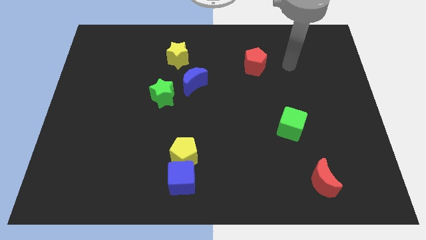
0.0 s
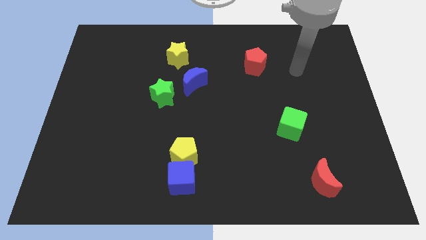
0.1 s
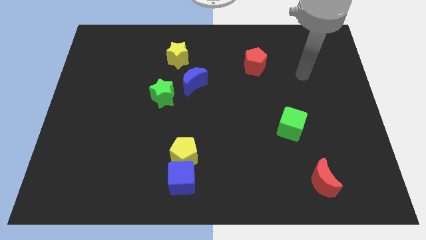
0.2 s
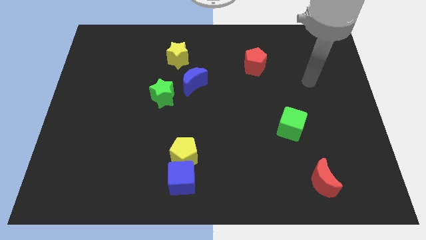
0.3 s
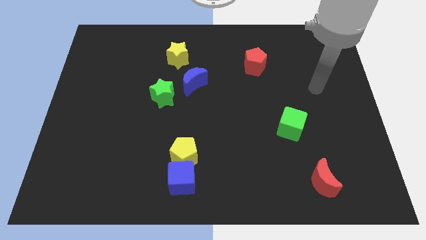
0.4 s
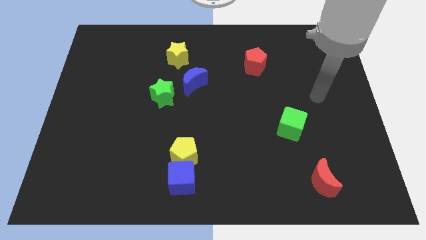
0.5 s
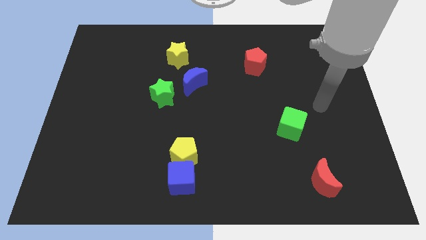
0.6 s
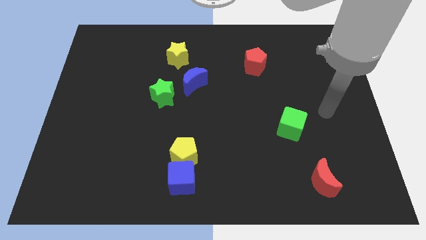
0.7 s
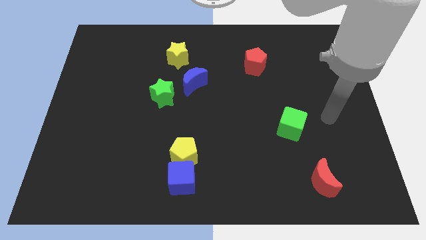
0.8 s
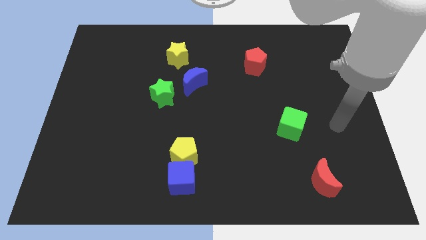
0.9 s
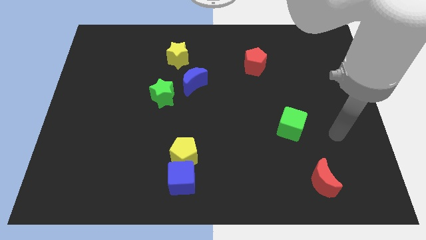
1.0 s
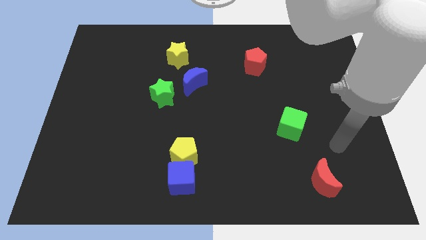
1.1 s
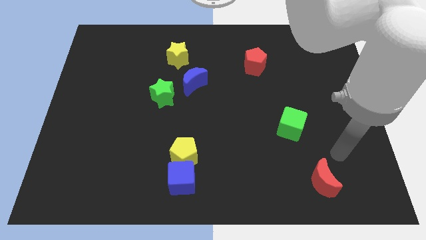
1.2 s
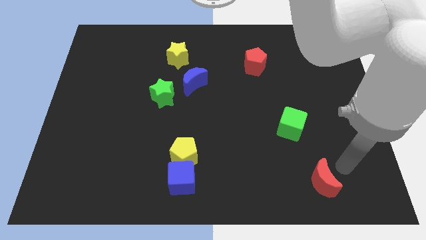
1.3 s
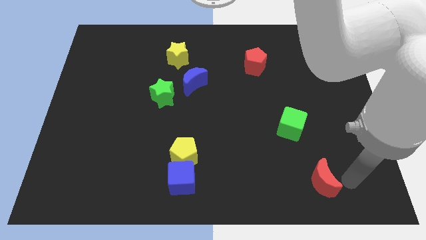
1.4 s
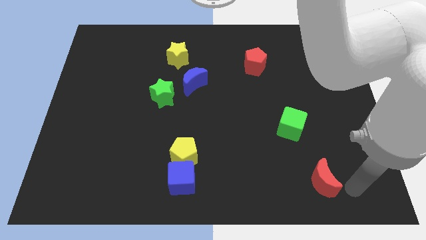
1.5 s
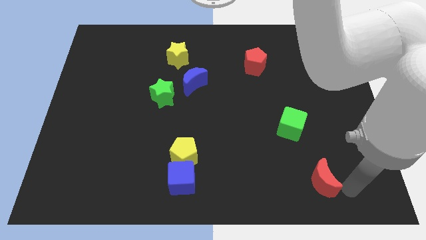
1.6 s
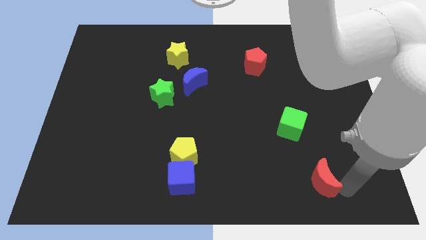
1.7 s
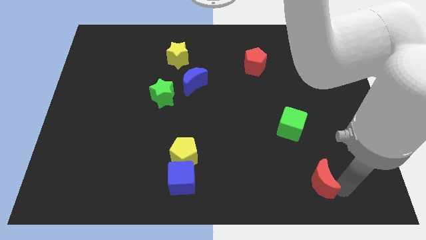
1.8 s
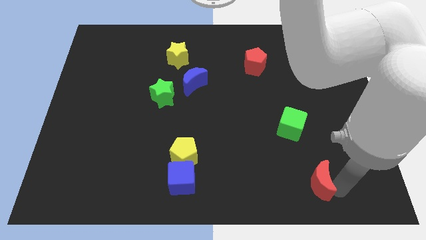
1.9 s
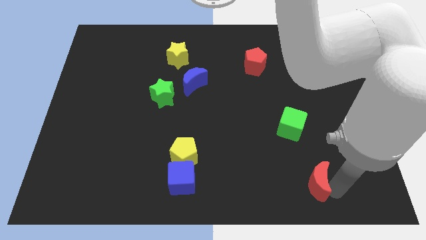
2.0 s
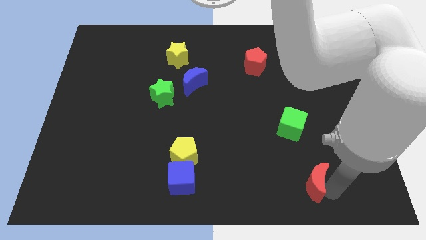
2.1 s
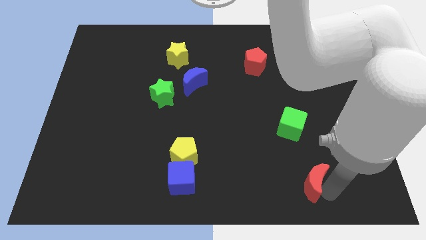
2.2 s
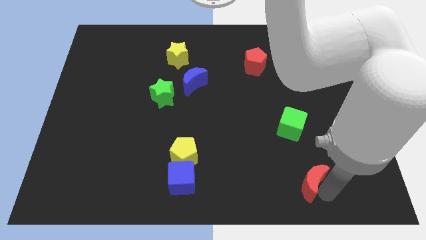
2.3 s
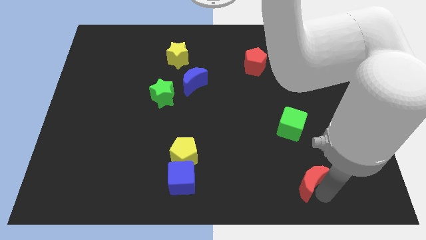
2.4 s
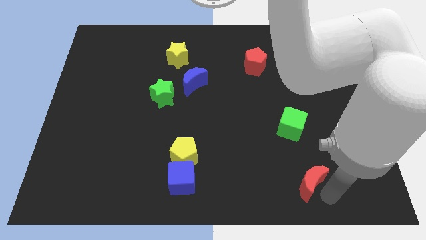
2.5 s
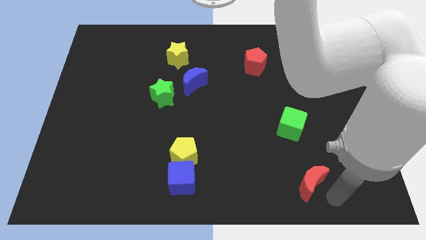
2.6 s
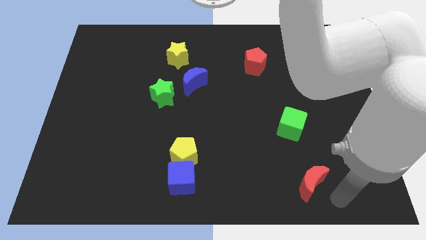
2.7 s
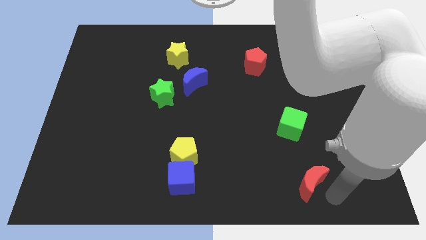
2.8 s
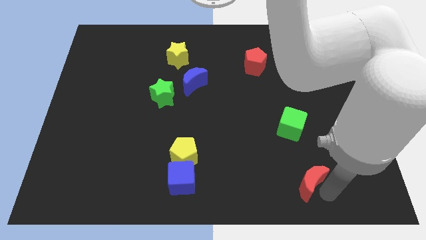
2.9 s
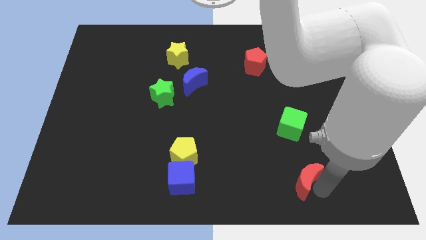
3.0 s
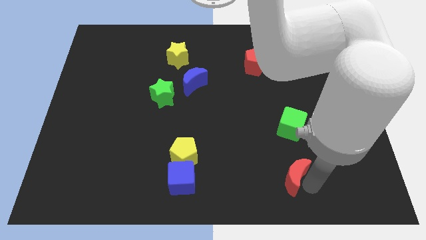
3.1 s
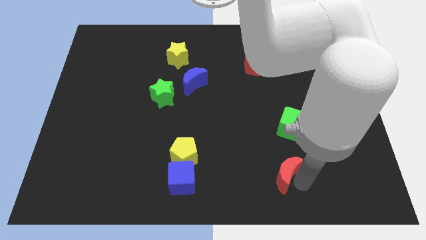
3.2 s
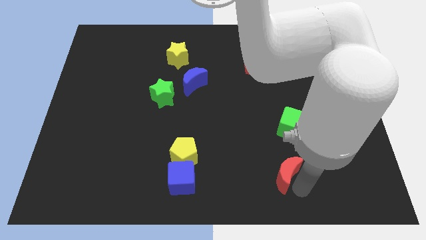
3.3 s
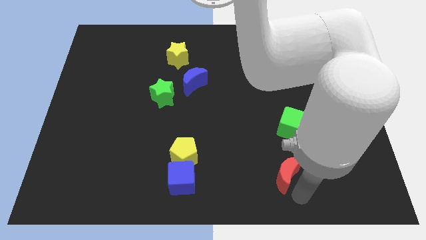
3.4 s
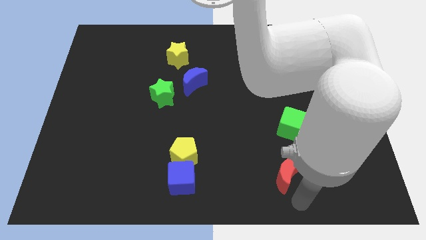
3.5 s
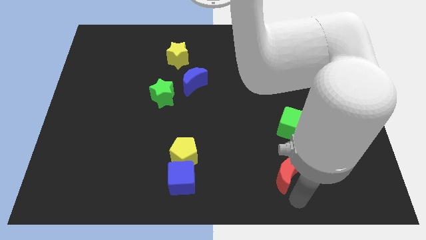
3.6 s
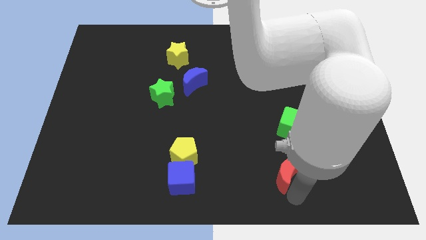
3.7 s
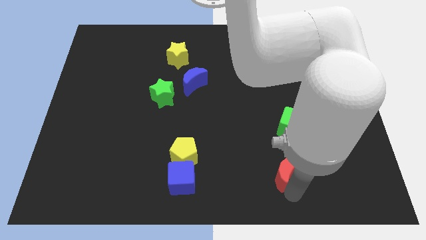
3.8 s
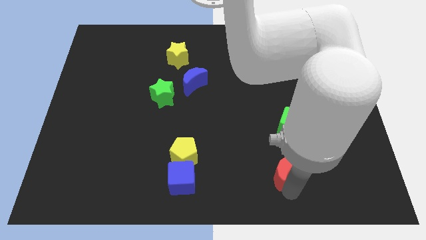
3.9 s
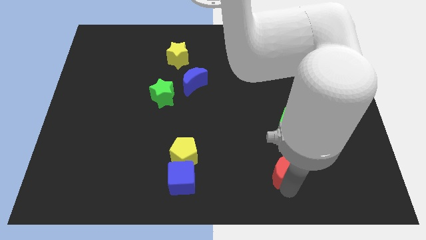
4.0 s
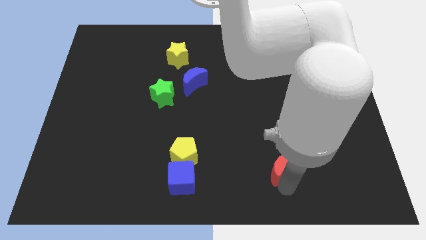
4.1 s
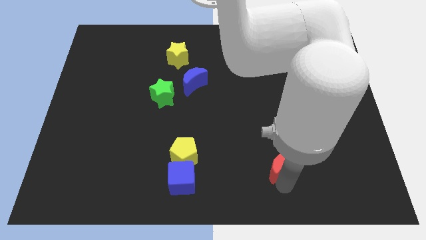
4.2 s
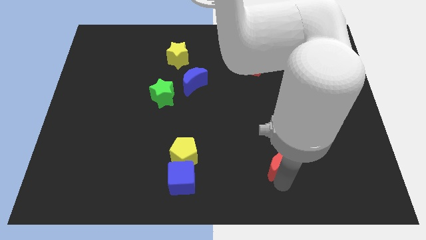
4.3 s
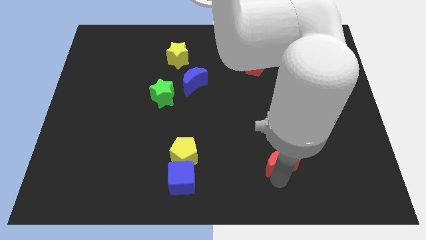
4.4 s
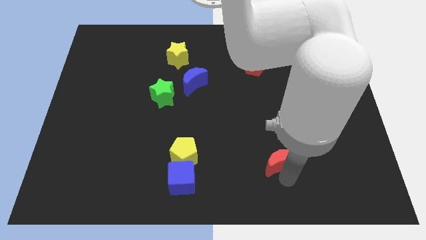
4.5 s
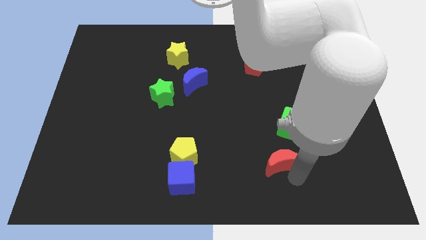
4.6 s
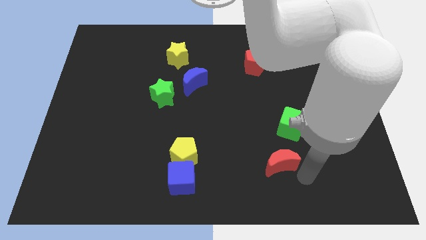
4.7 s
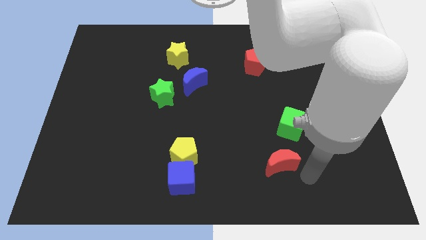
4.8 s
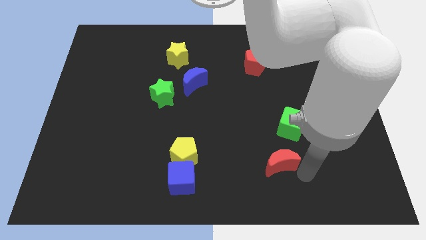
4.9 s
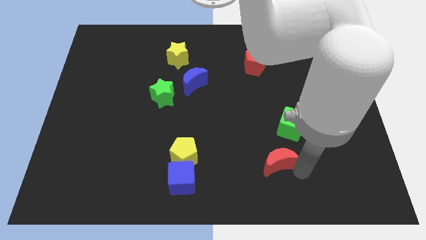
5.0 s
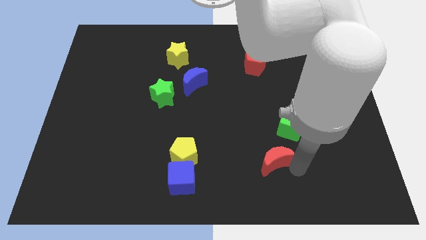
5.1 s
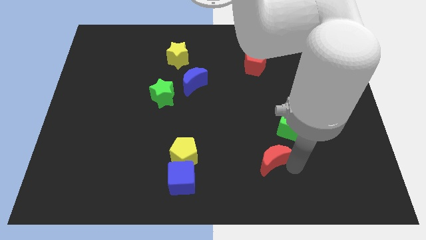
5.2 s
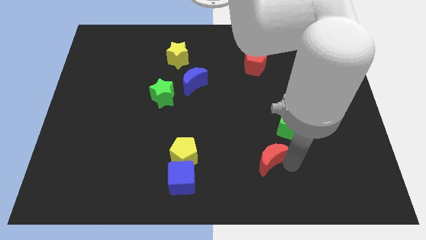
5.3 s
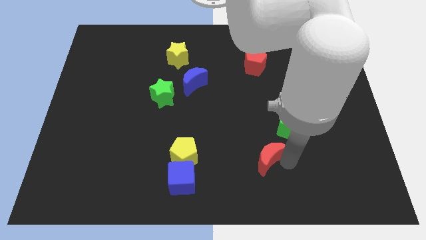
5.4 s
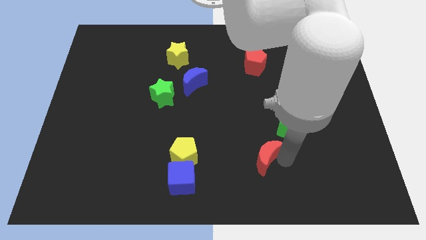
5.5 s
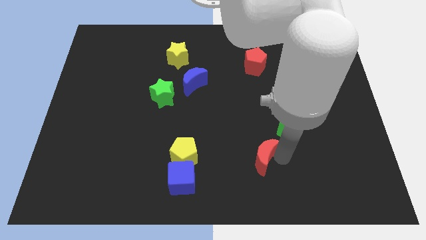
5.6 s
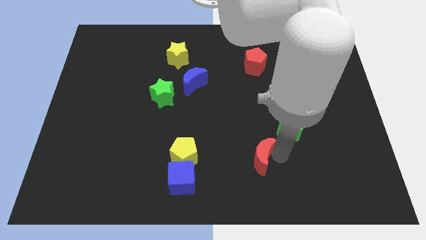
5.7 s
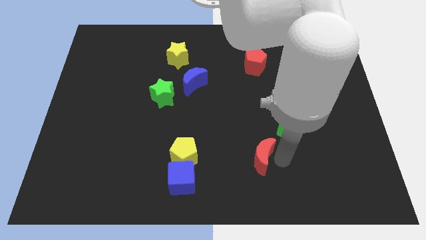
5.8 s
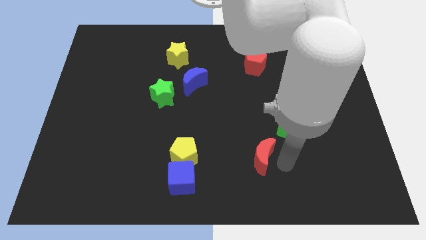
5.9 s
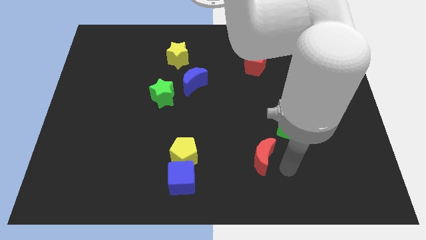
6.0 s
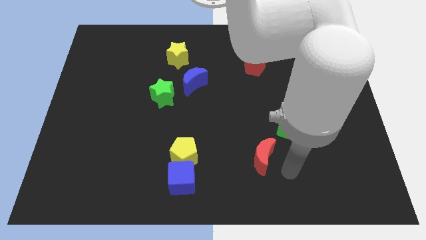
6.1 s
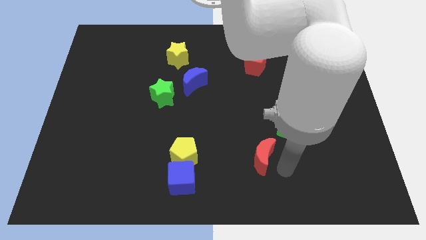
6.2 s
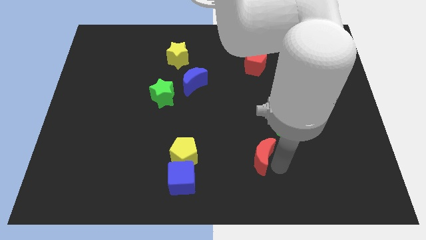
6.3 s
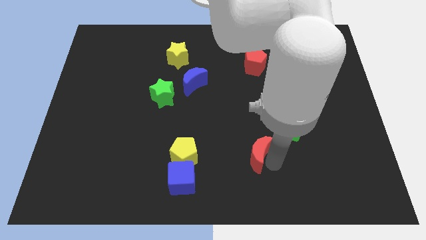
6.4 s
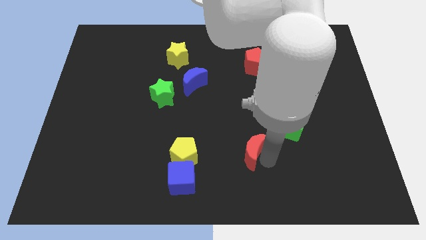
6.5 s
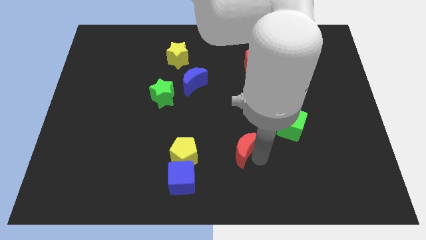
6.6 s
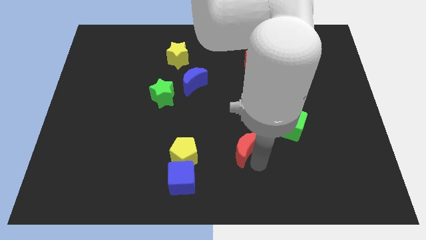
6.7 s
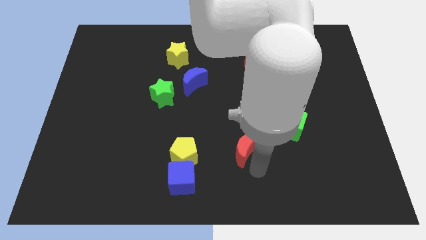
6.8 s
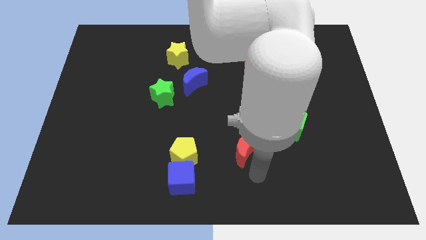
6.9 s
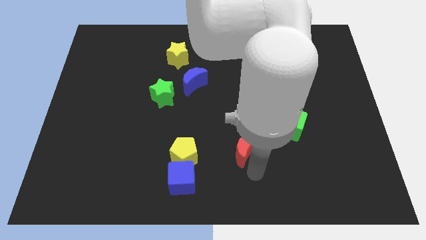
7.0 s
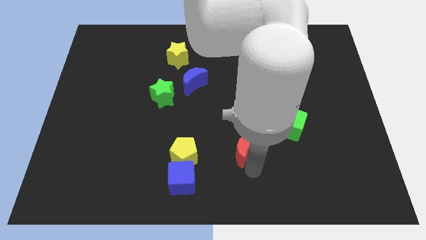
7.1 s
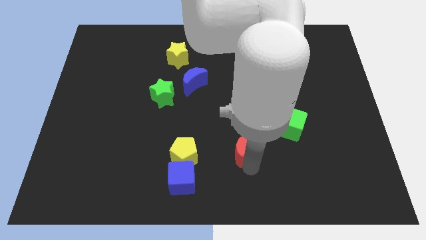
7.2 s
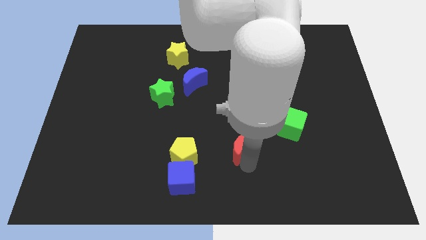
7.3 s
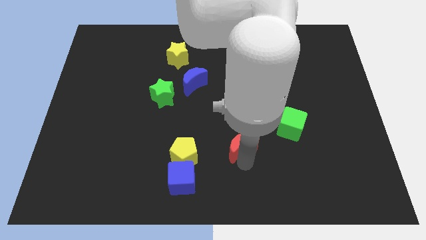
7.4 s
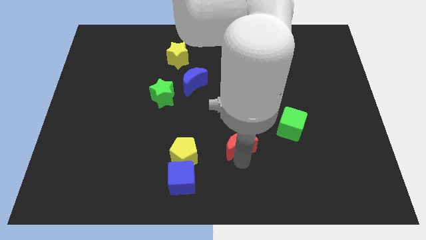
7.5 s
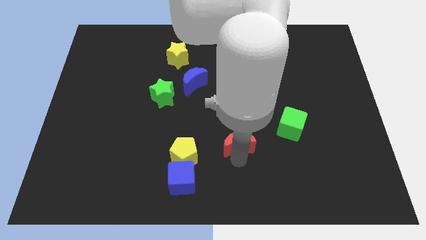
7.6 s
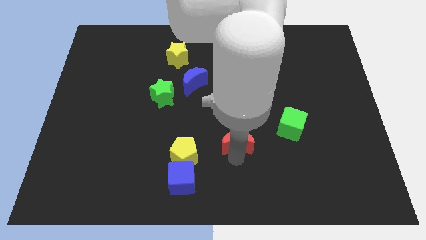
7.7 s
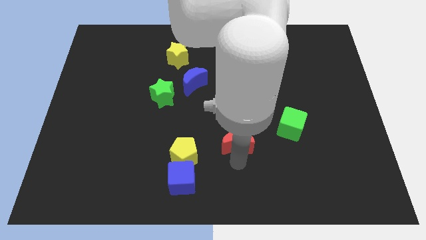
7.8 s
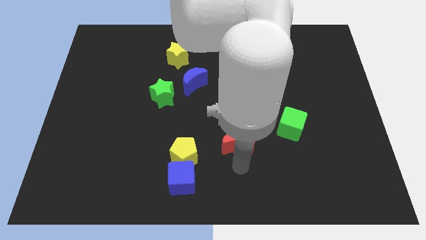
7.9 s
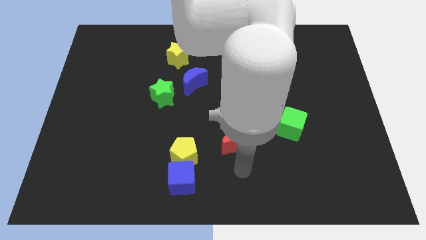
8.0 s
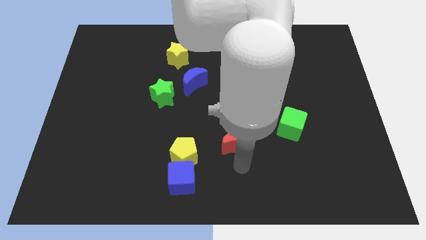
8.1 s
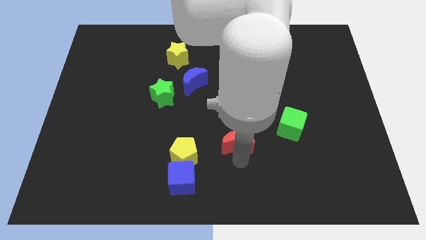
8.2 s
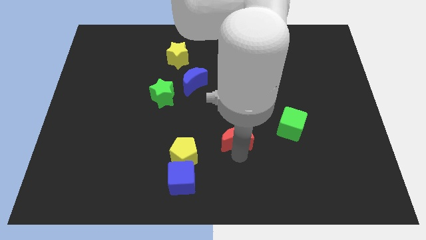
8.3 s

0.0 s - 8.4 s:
slide the red moon to the middle
